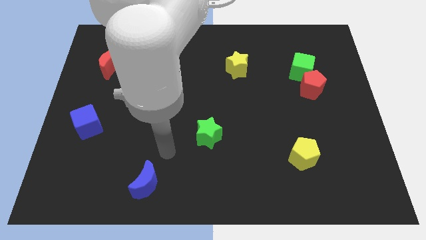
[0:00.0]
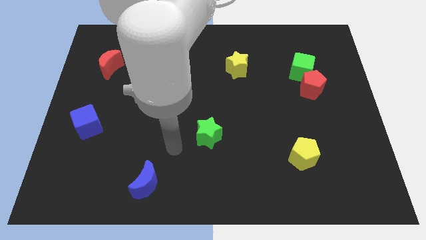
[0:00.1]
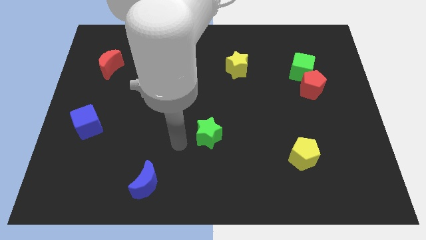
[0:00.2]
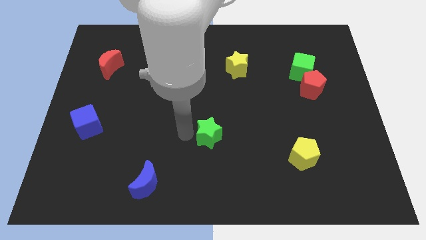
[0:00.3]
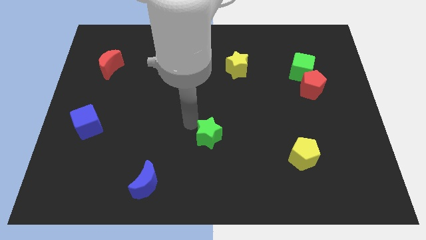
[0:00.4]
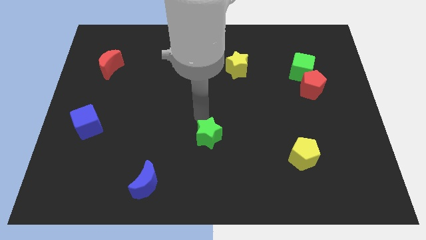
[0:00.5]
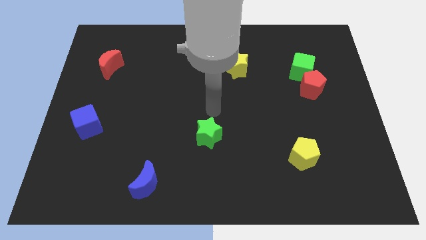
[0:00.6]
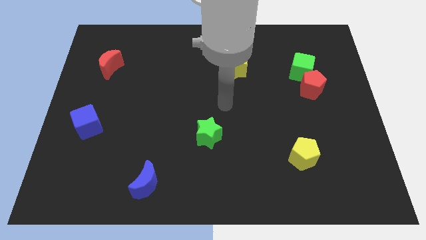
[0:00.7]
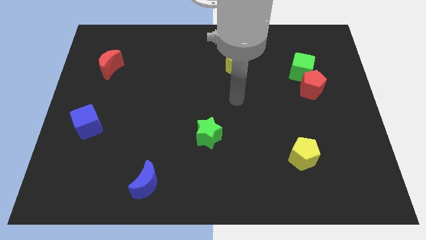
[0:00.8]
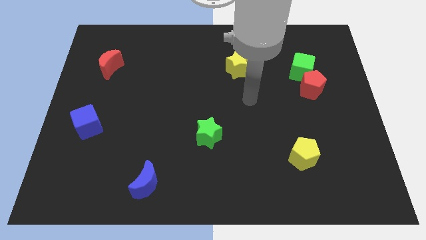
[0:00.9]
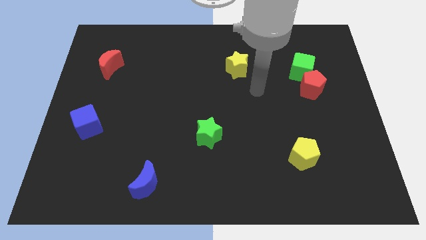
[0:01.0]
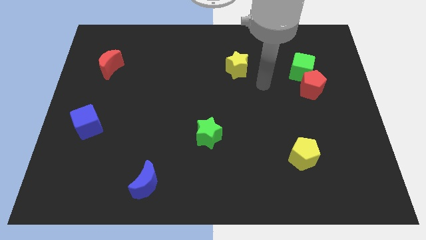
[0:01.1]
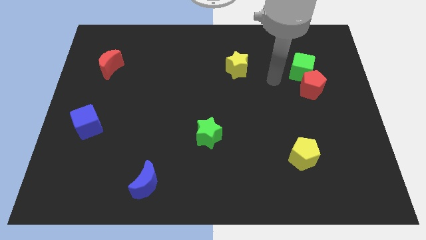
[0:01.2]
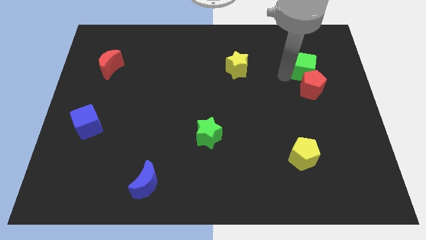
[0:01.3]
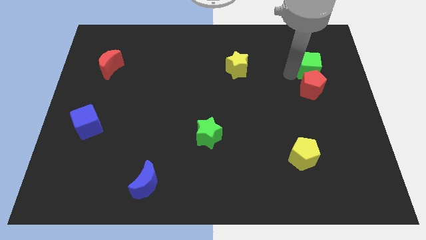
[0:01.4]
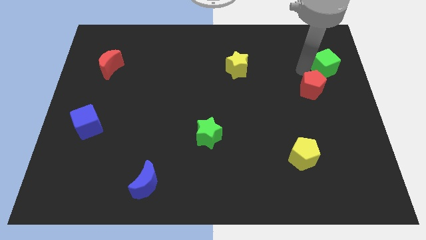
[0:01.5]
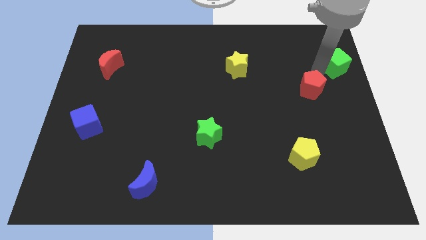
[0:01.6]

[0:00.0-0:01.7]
move the red pentagon away from the green cube

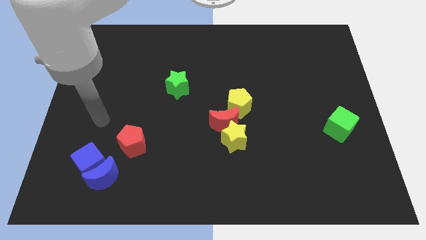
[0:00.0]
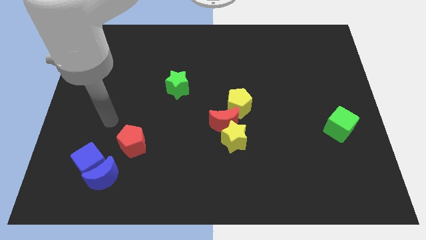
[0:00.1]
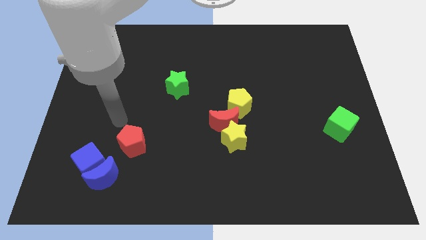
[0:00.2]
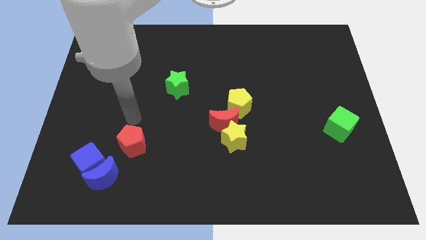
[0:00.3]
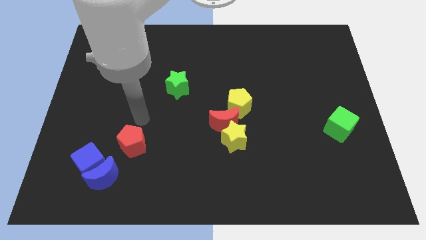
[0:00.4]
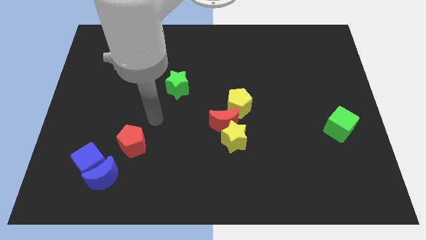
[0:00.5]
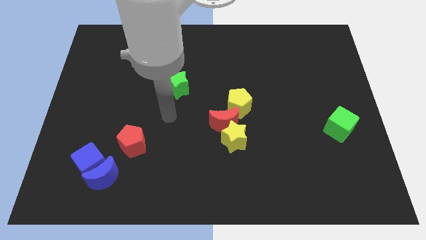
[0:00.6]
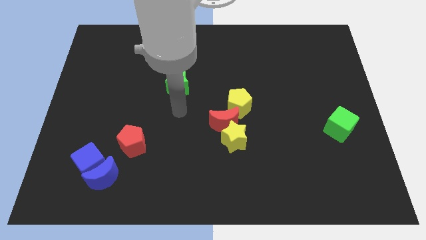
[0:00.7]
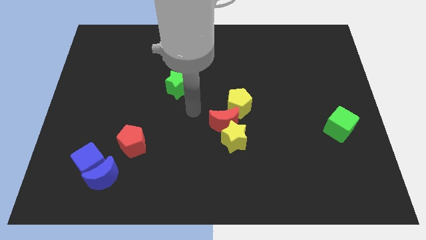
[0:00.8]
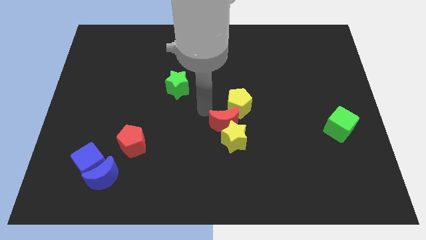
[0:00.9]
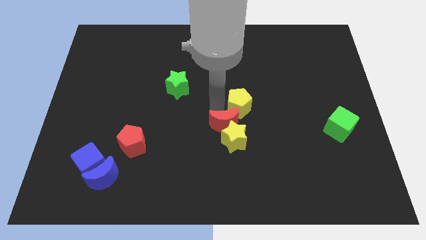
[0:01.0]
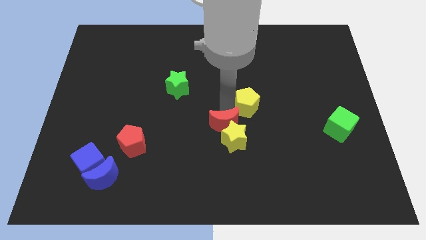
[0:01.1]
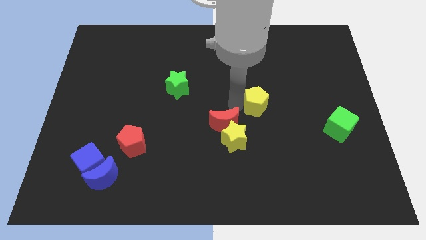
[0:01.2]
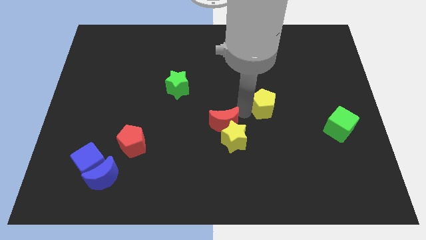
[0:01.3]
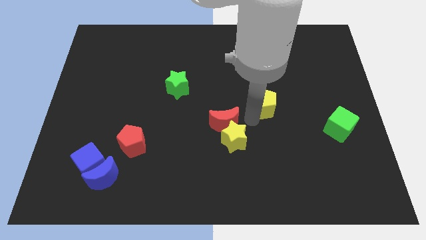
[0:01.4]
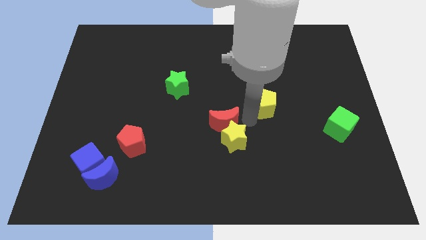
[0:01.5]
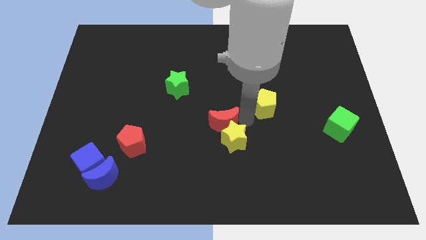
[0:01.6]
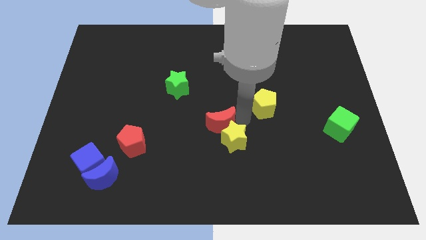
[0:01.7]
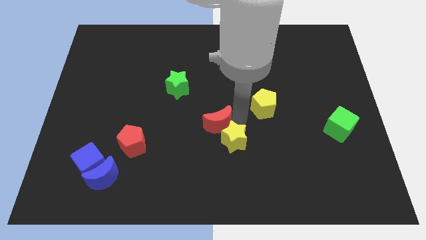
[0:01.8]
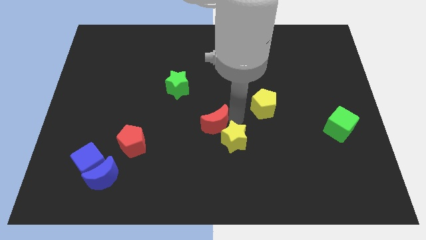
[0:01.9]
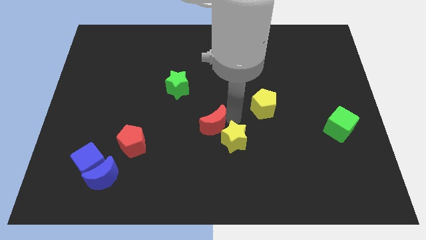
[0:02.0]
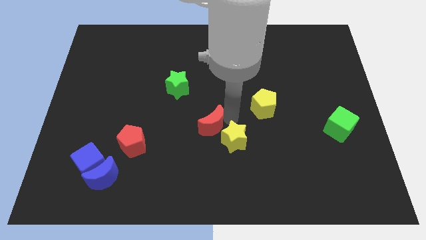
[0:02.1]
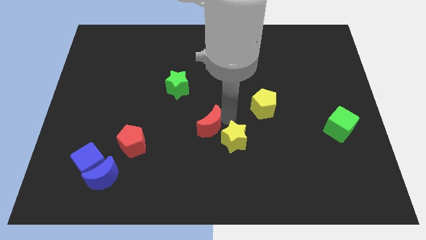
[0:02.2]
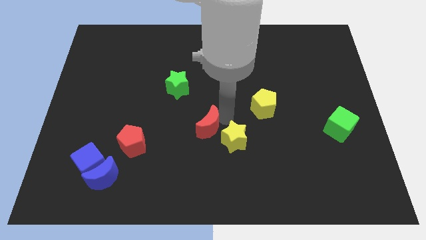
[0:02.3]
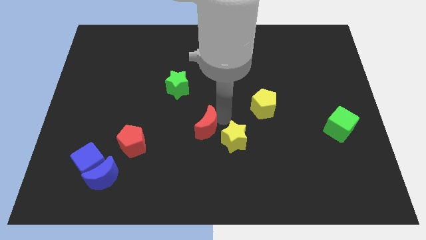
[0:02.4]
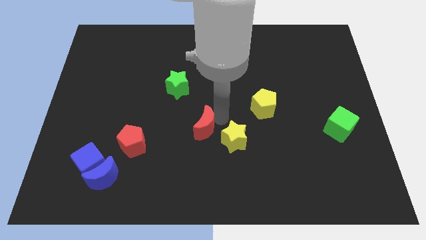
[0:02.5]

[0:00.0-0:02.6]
pull the red moon apart from the yellow star and yellow pentagon

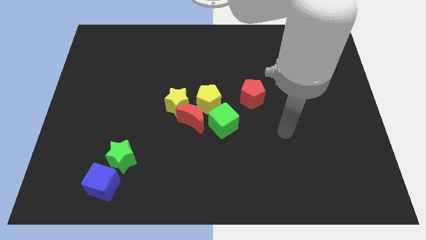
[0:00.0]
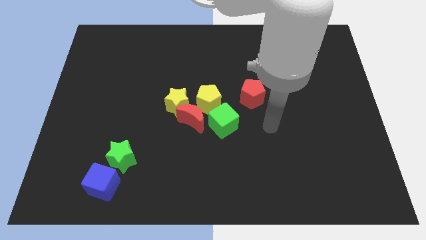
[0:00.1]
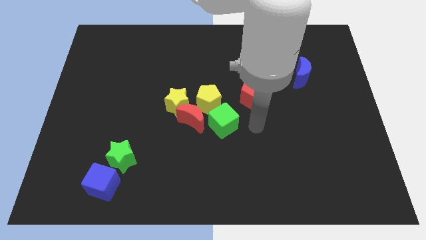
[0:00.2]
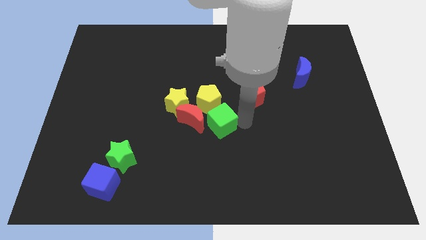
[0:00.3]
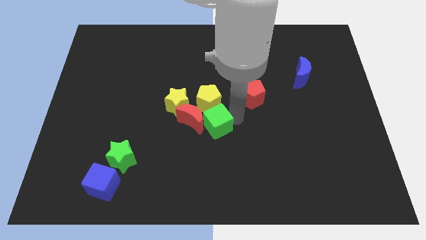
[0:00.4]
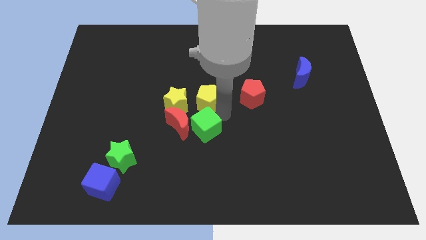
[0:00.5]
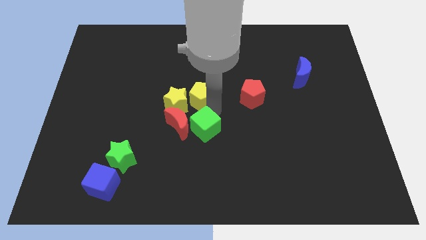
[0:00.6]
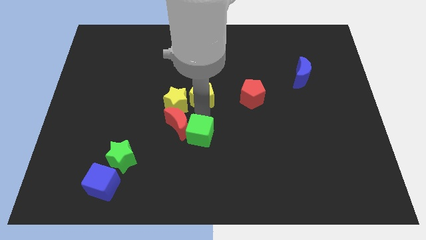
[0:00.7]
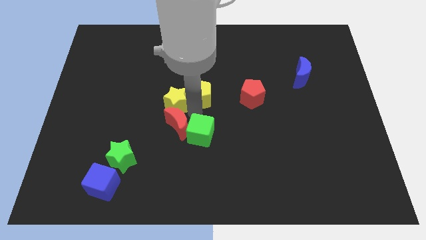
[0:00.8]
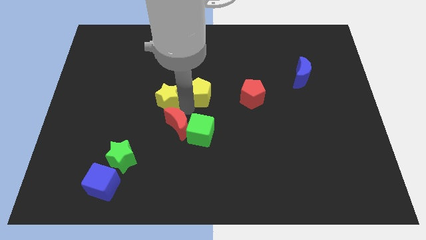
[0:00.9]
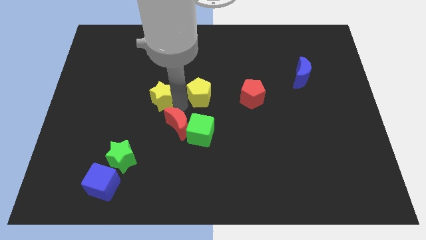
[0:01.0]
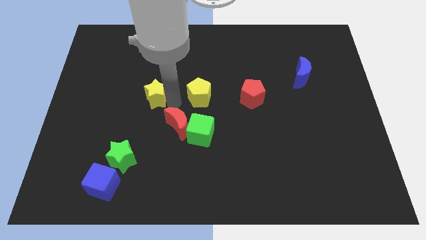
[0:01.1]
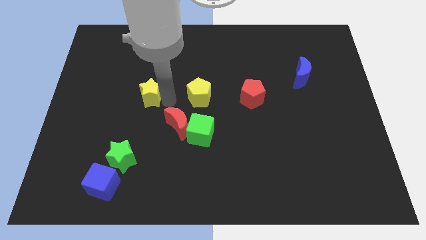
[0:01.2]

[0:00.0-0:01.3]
pull the yellow star apart from the red moon and yellow pentagon

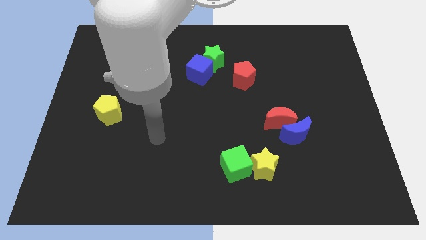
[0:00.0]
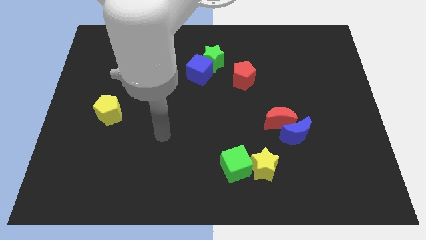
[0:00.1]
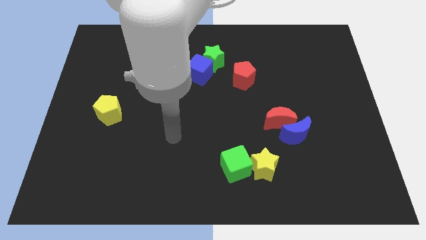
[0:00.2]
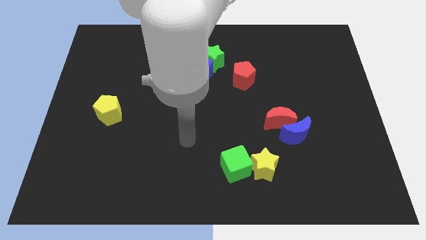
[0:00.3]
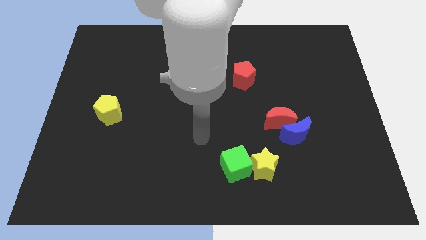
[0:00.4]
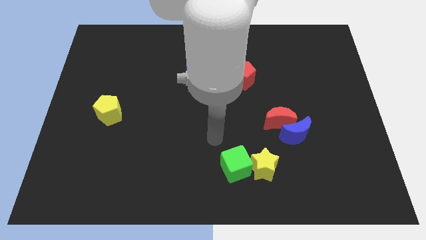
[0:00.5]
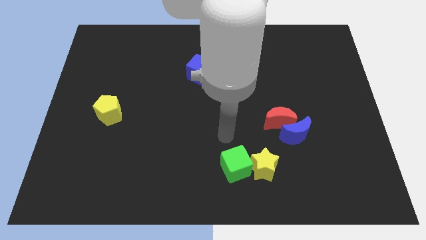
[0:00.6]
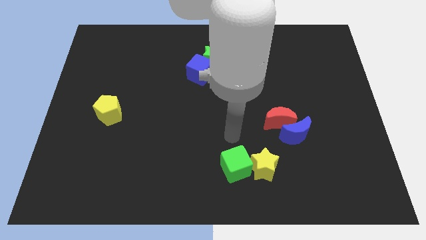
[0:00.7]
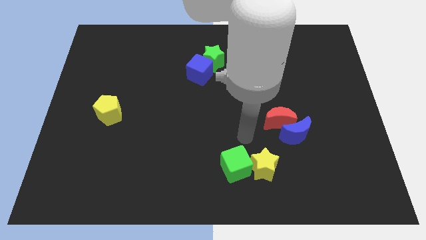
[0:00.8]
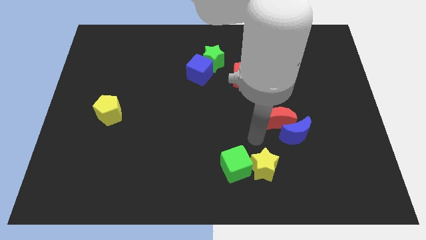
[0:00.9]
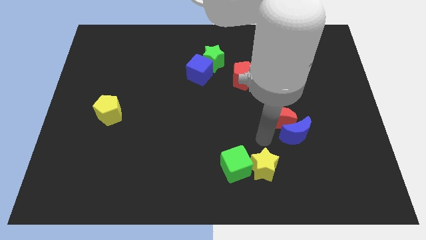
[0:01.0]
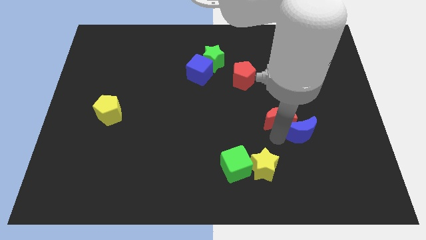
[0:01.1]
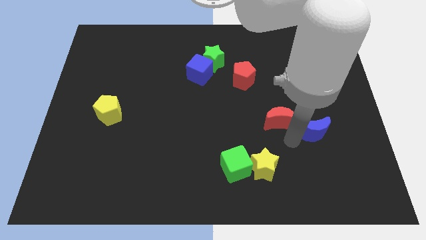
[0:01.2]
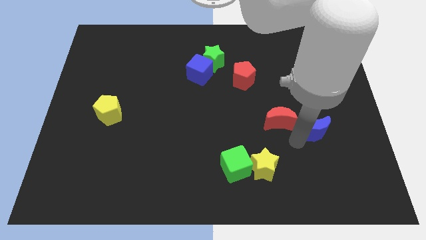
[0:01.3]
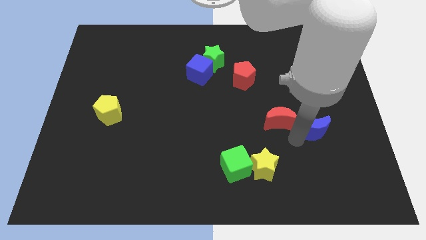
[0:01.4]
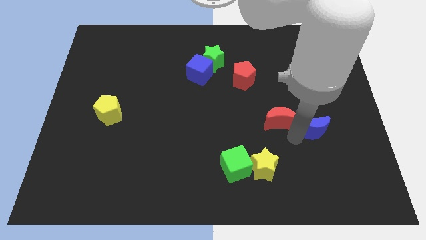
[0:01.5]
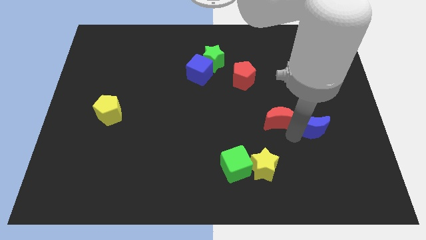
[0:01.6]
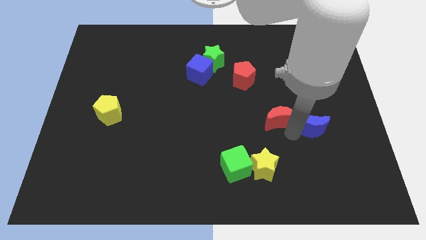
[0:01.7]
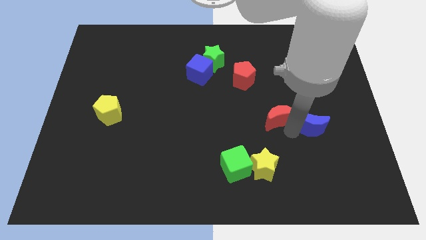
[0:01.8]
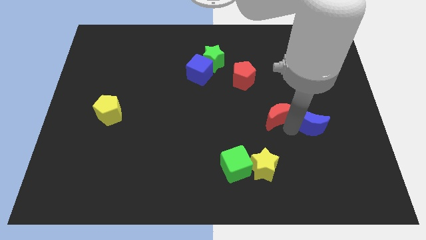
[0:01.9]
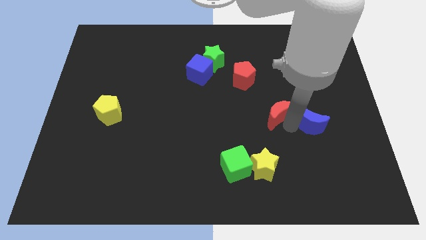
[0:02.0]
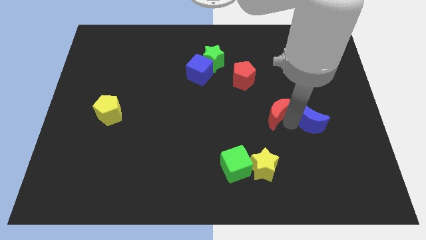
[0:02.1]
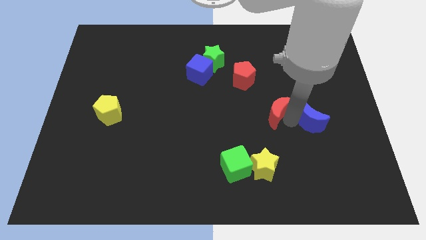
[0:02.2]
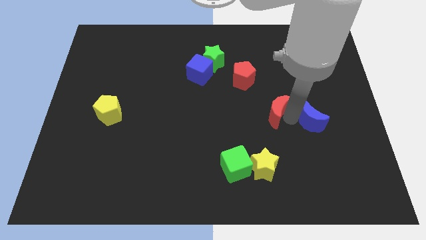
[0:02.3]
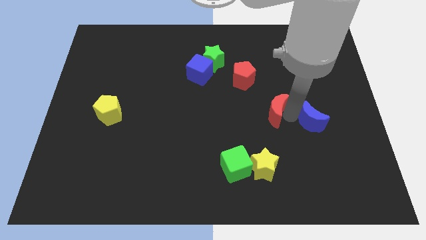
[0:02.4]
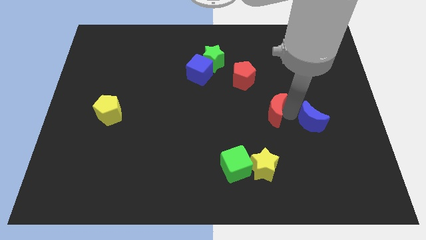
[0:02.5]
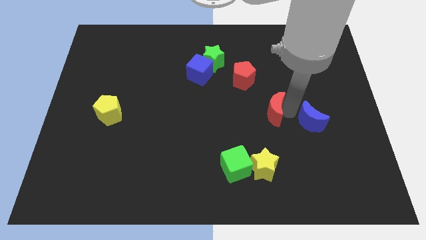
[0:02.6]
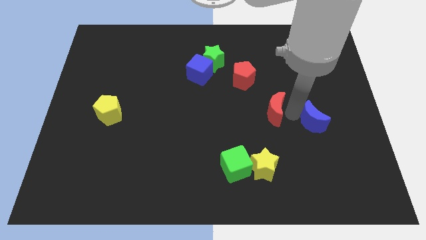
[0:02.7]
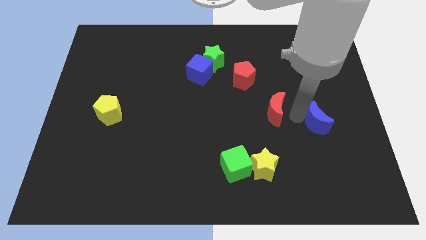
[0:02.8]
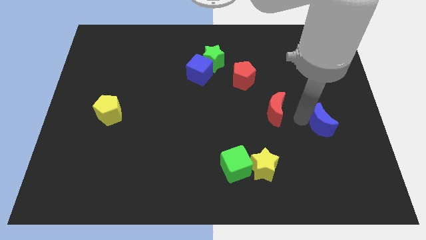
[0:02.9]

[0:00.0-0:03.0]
move the red moon away from the blue moon

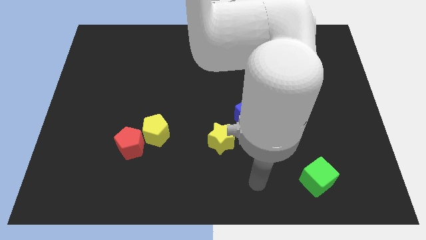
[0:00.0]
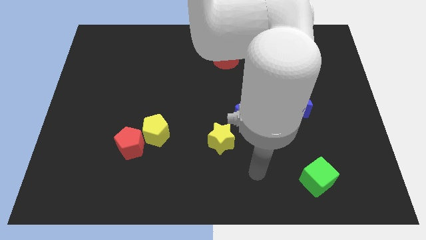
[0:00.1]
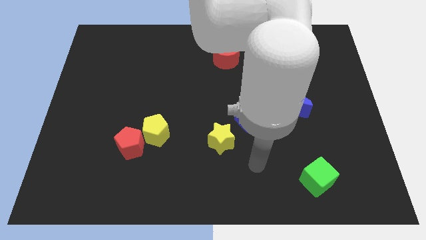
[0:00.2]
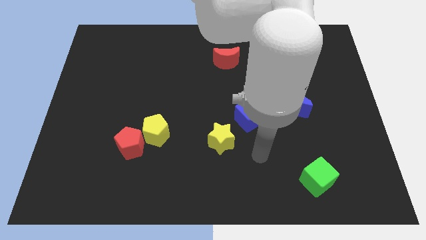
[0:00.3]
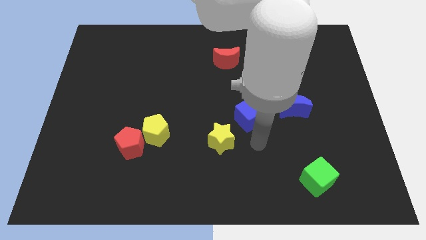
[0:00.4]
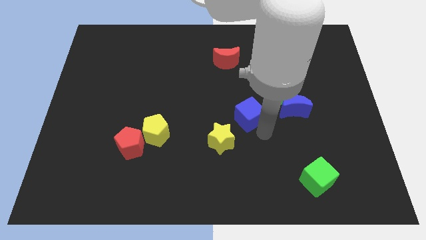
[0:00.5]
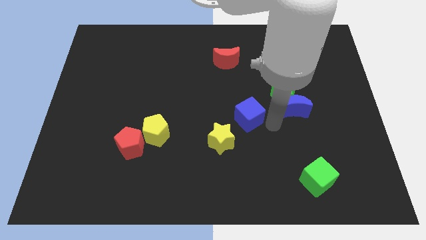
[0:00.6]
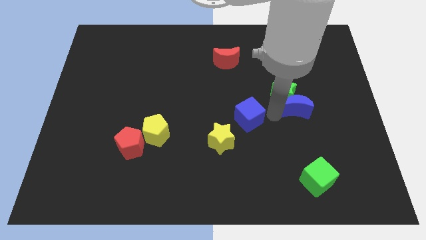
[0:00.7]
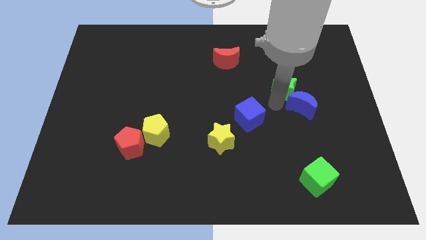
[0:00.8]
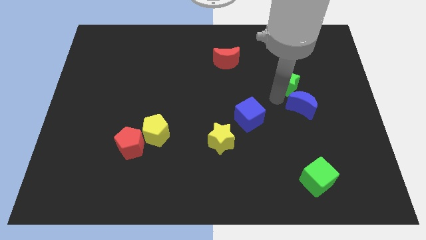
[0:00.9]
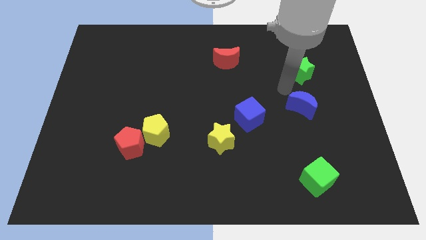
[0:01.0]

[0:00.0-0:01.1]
move the blue moon away from the green star
